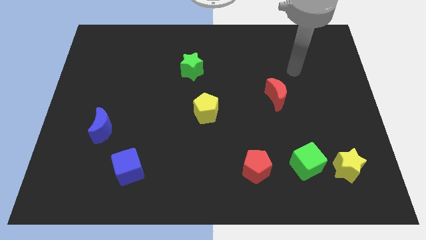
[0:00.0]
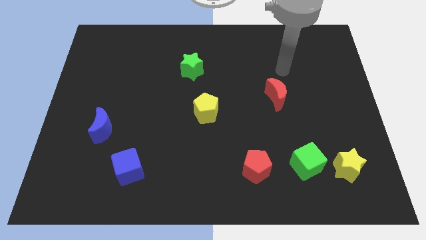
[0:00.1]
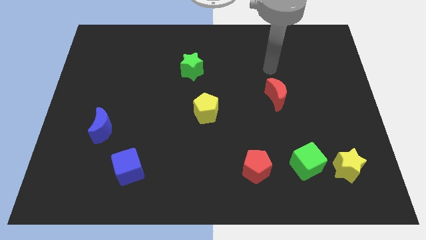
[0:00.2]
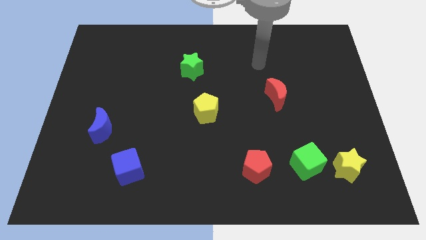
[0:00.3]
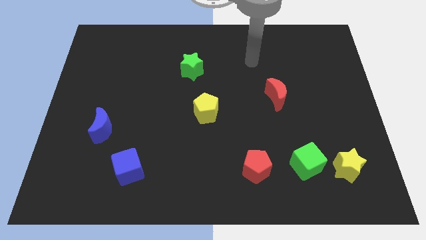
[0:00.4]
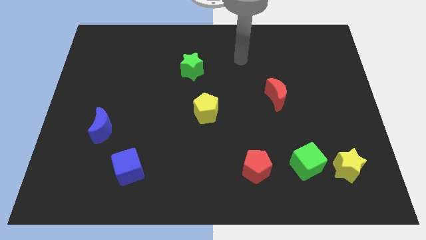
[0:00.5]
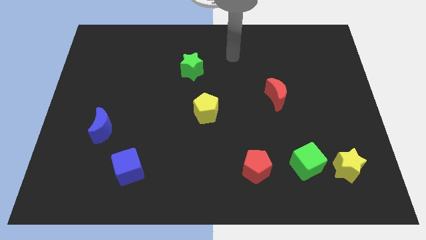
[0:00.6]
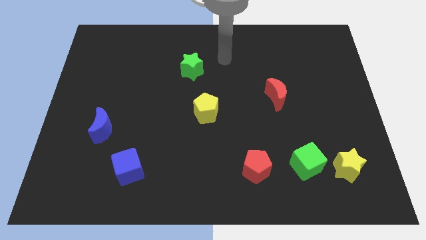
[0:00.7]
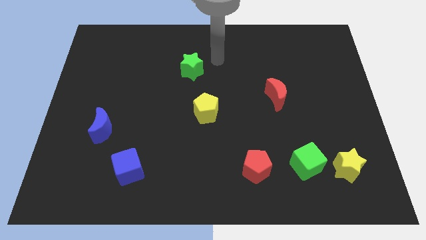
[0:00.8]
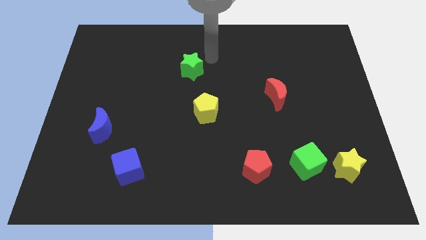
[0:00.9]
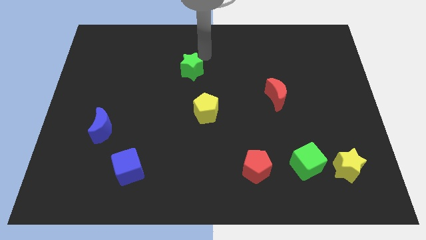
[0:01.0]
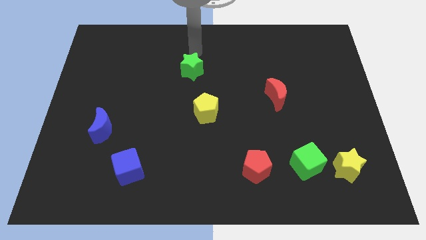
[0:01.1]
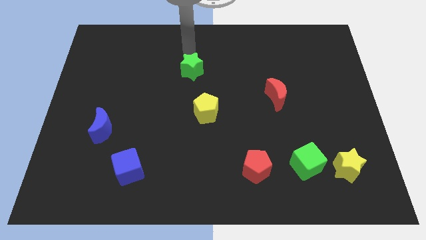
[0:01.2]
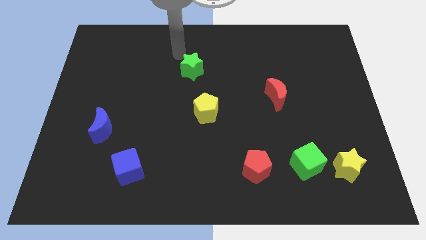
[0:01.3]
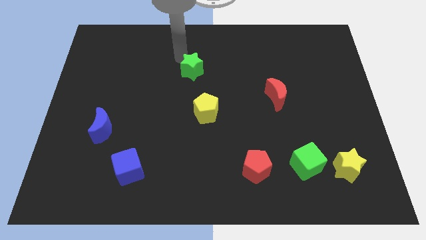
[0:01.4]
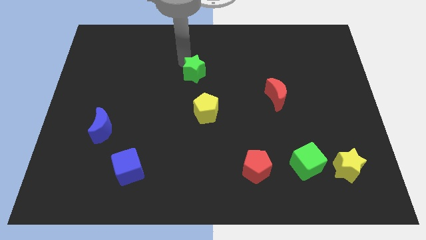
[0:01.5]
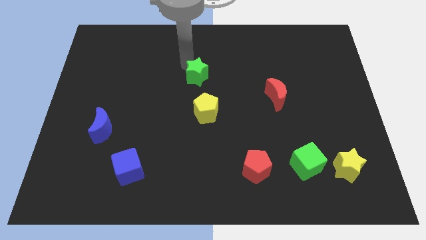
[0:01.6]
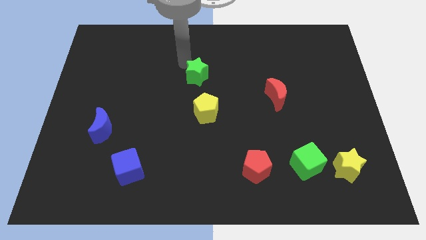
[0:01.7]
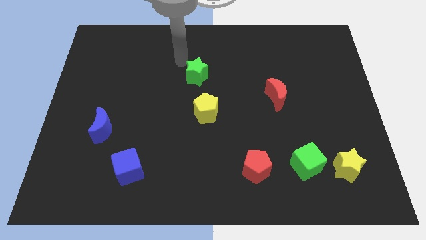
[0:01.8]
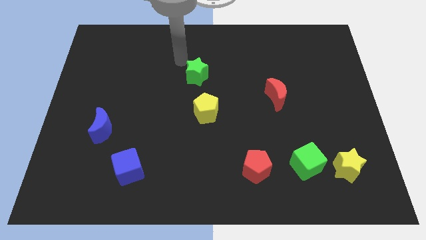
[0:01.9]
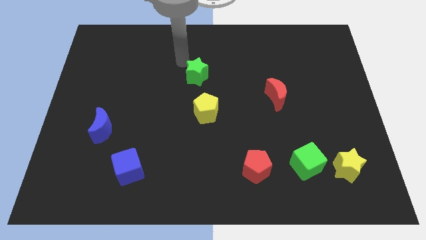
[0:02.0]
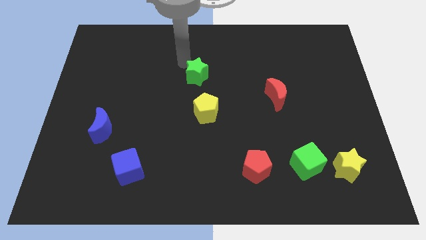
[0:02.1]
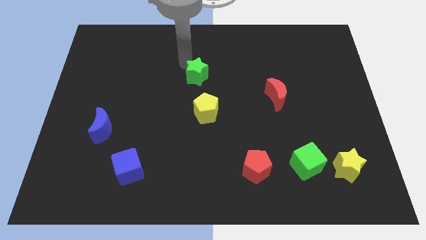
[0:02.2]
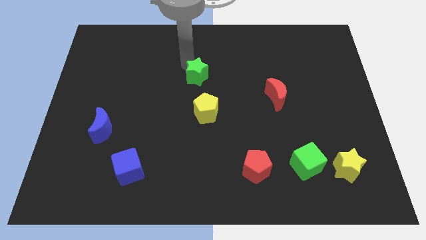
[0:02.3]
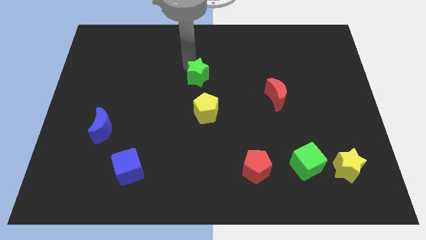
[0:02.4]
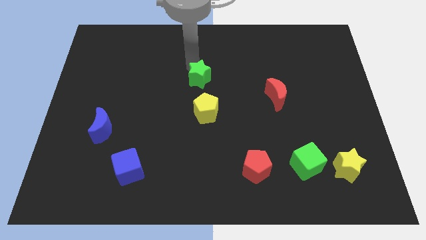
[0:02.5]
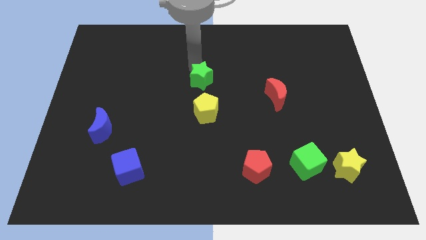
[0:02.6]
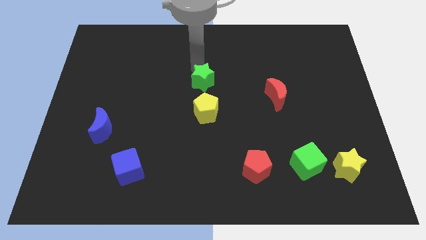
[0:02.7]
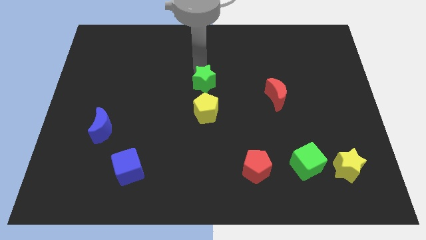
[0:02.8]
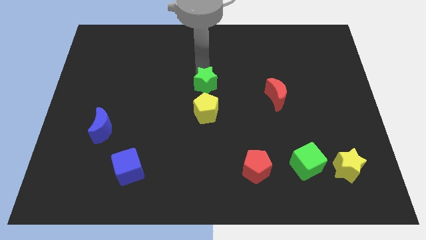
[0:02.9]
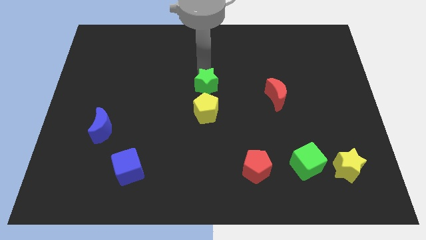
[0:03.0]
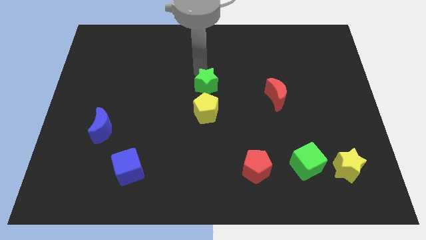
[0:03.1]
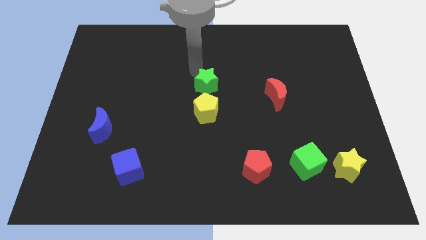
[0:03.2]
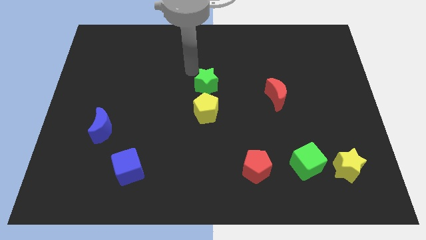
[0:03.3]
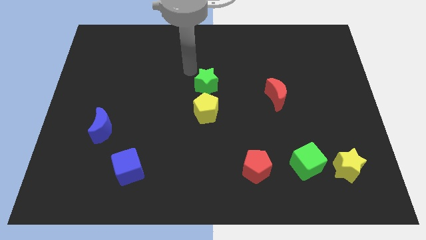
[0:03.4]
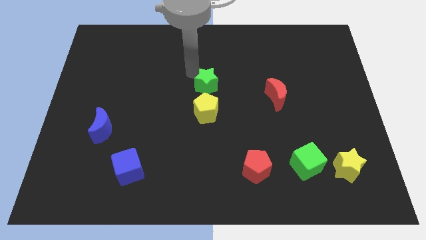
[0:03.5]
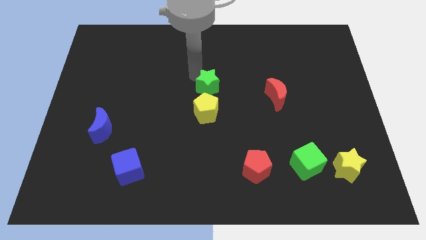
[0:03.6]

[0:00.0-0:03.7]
slightly slide the green star diagonally down and right

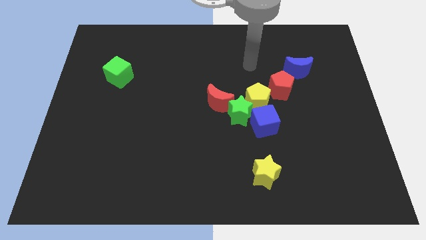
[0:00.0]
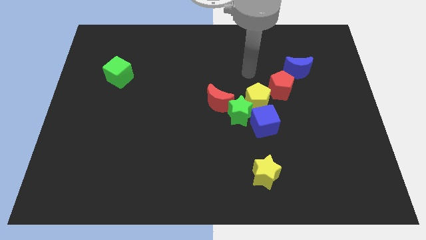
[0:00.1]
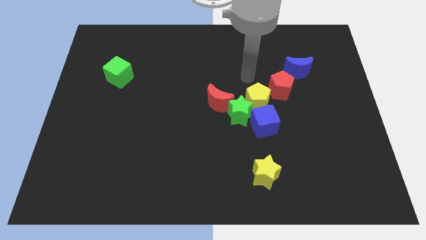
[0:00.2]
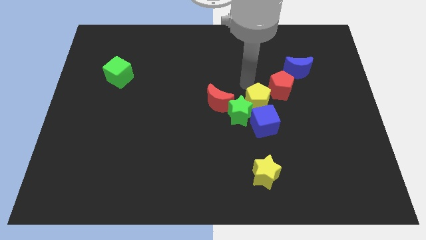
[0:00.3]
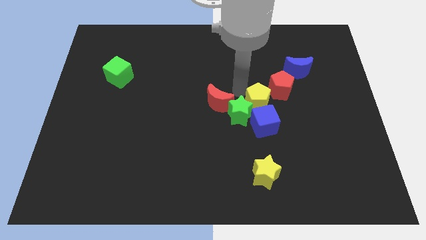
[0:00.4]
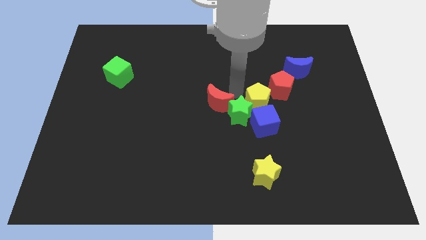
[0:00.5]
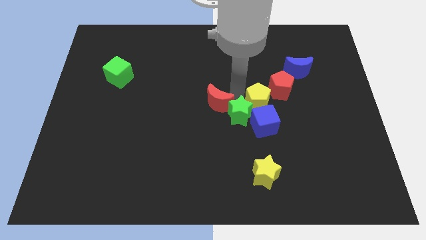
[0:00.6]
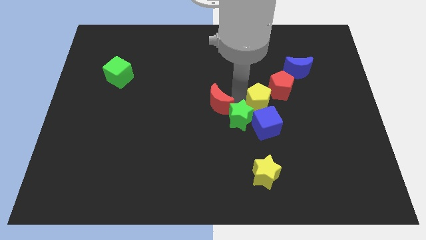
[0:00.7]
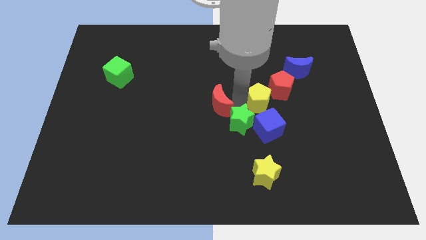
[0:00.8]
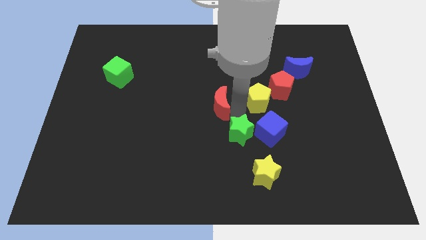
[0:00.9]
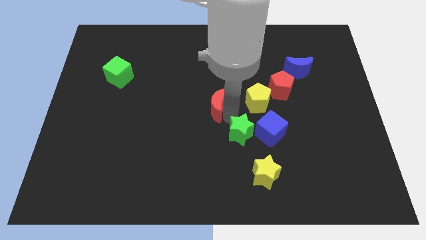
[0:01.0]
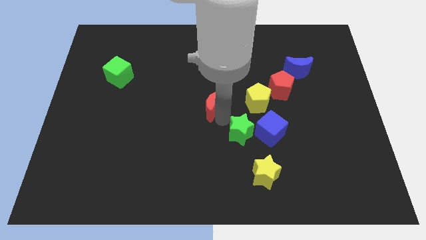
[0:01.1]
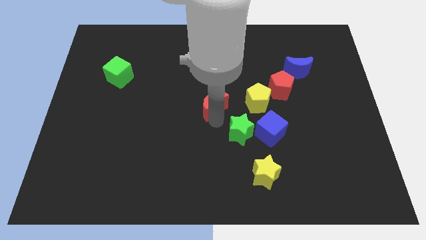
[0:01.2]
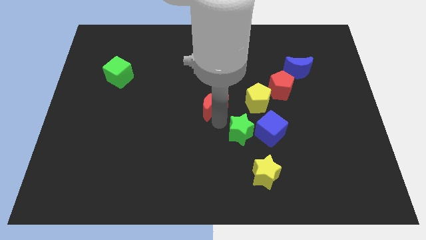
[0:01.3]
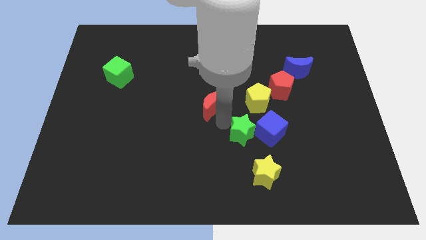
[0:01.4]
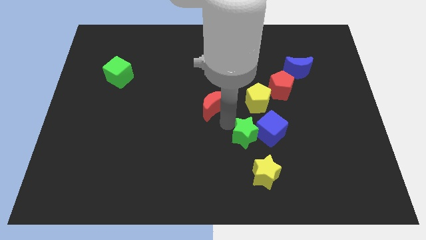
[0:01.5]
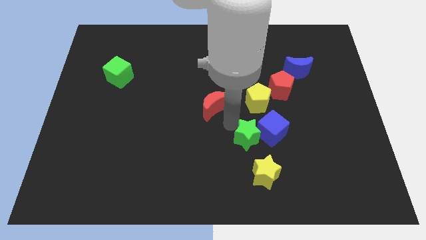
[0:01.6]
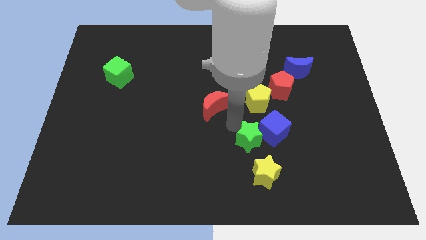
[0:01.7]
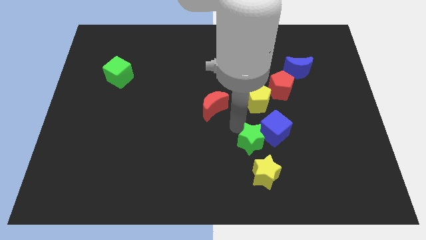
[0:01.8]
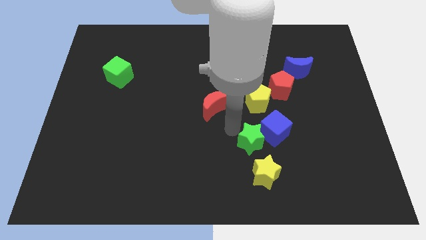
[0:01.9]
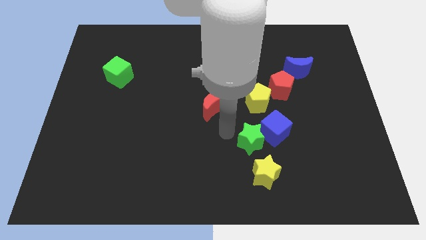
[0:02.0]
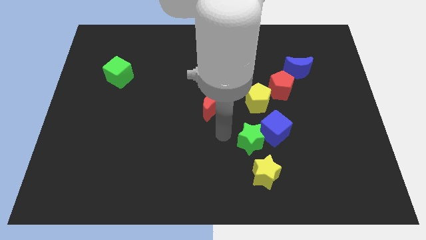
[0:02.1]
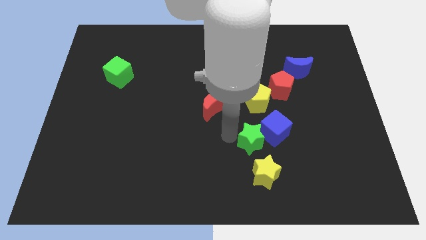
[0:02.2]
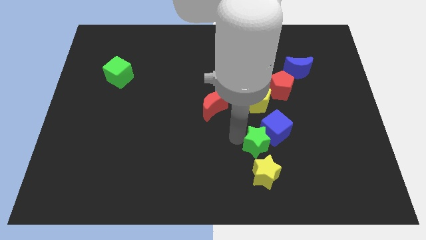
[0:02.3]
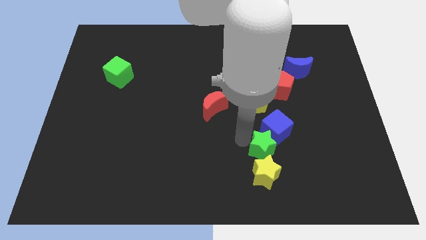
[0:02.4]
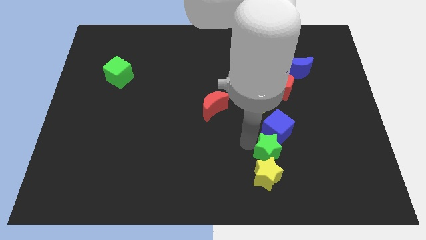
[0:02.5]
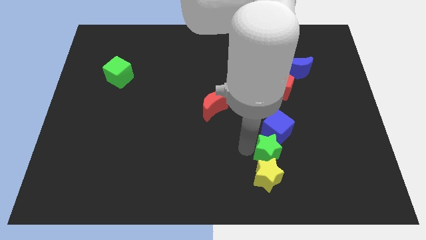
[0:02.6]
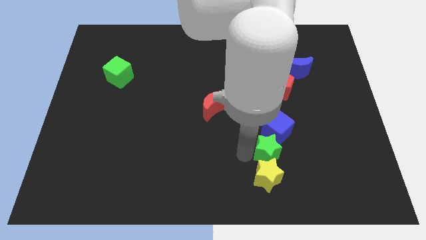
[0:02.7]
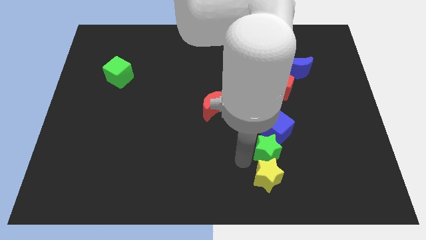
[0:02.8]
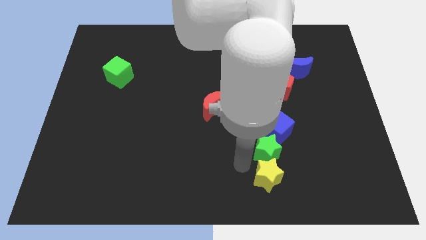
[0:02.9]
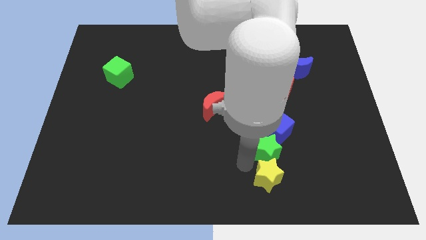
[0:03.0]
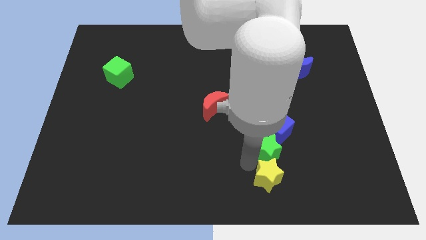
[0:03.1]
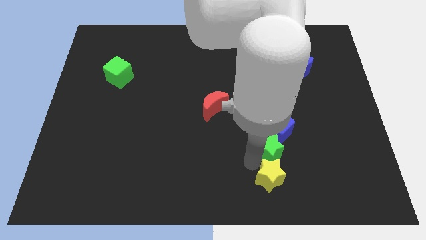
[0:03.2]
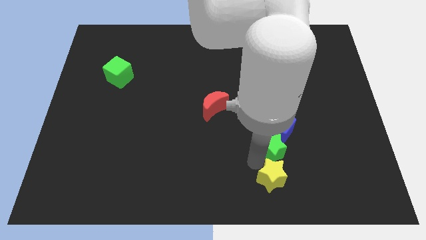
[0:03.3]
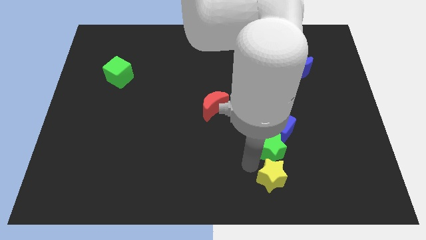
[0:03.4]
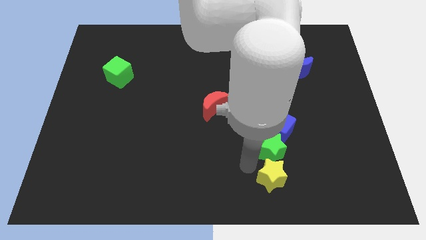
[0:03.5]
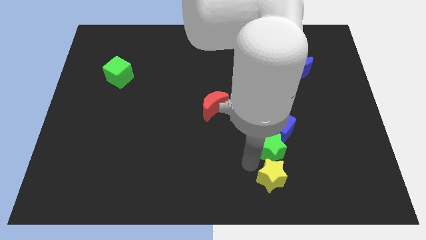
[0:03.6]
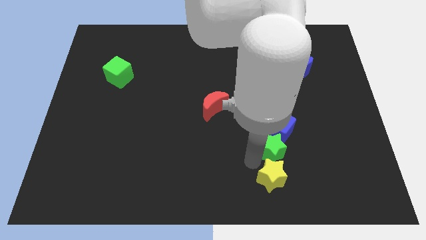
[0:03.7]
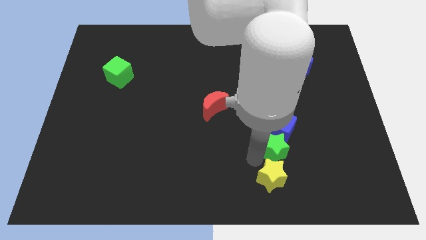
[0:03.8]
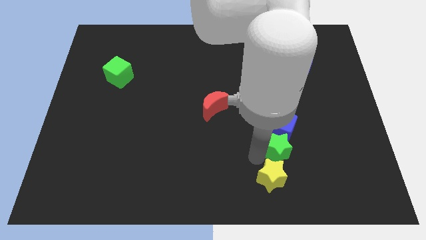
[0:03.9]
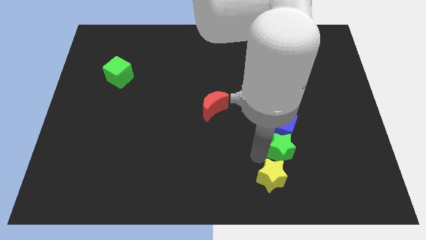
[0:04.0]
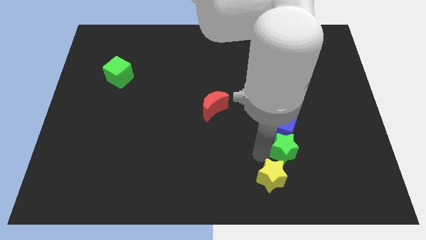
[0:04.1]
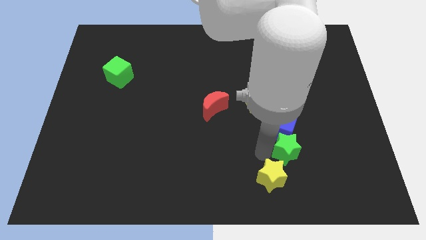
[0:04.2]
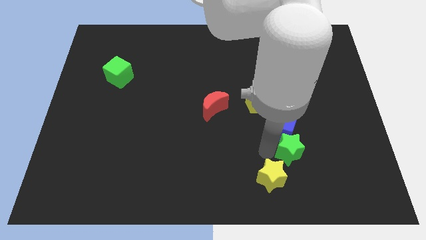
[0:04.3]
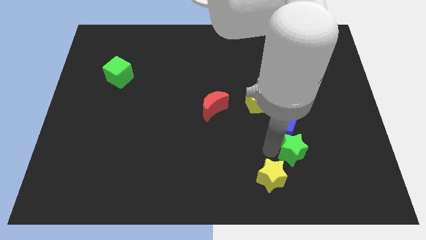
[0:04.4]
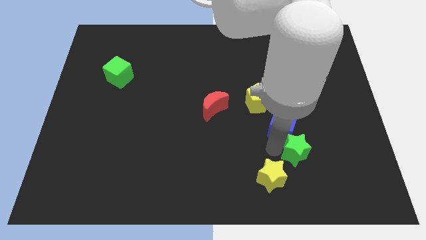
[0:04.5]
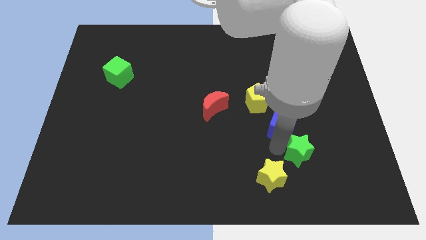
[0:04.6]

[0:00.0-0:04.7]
slightly push the green star to the right
